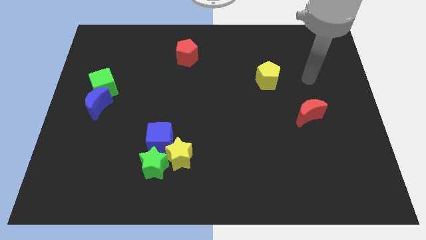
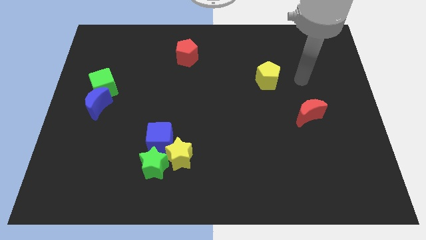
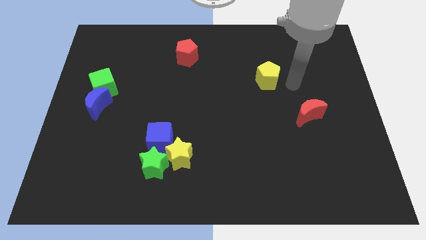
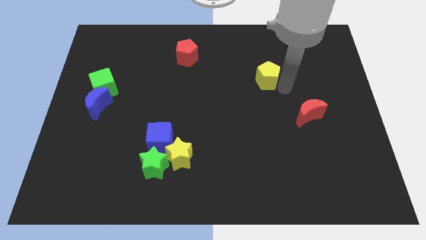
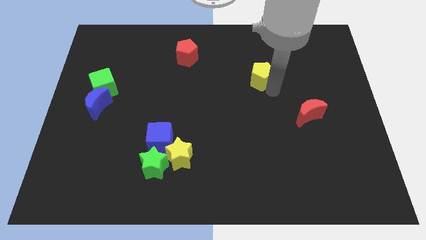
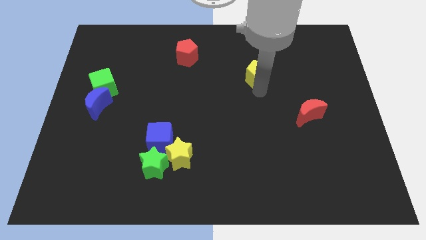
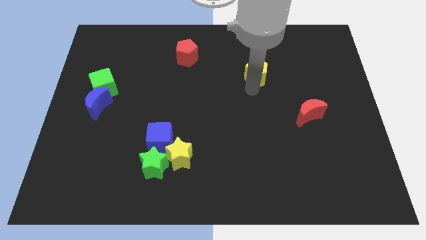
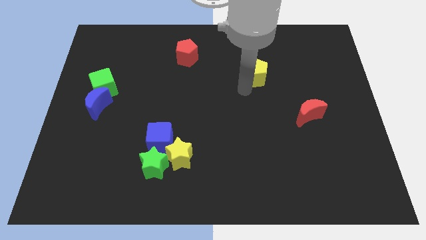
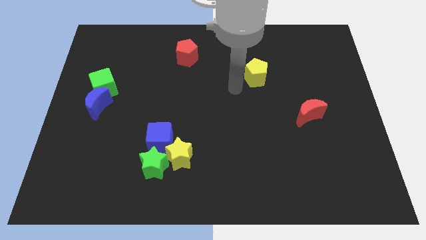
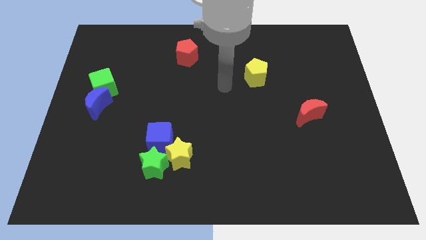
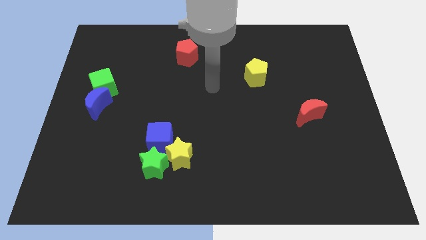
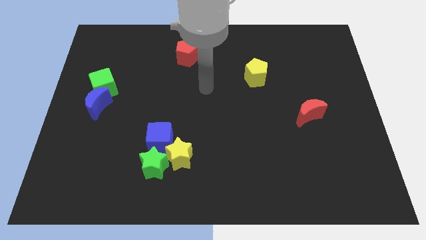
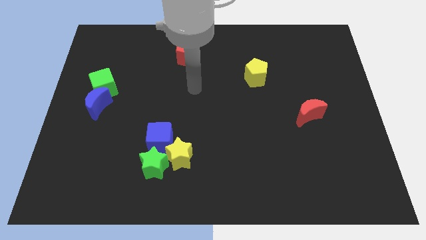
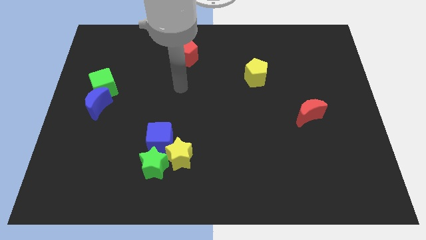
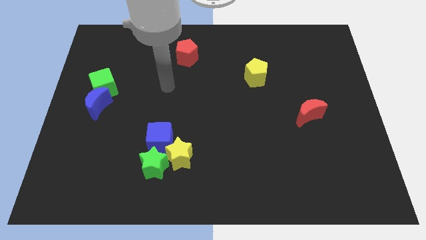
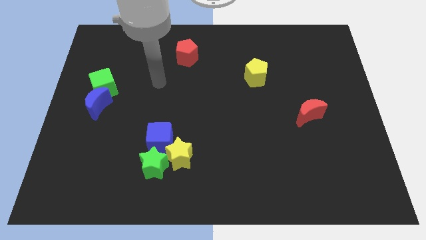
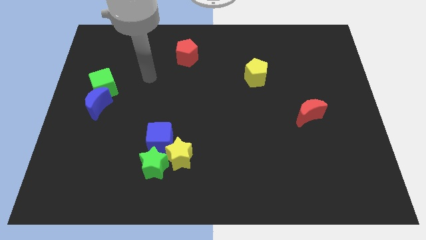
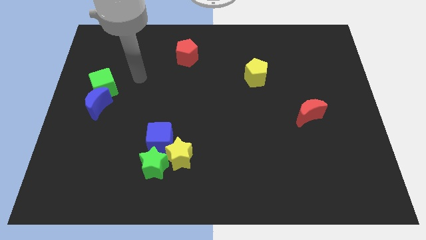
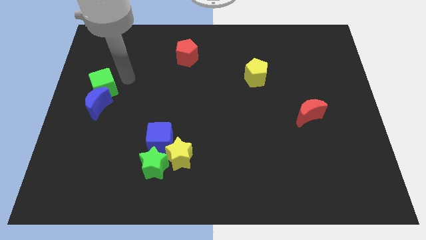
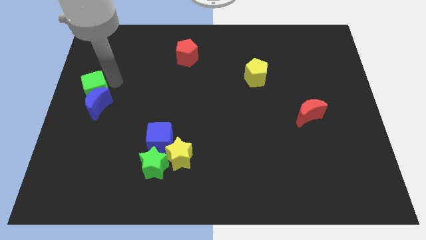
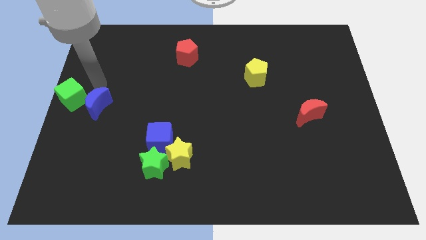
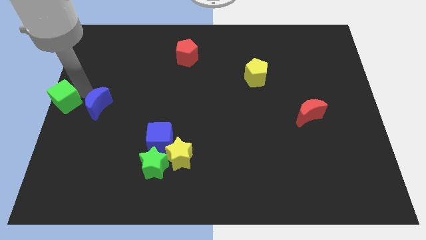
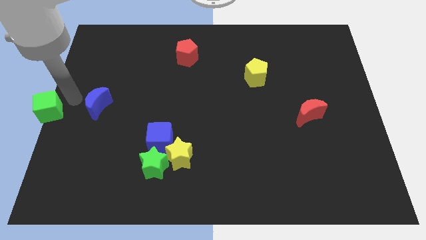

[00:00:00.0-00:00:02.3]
separate the blue moon from the green cube

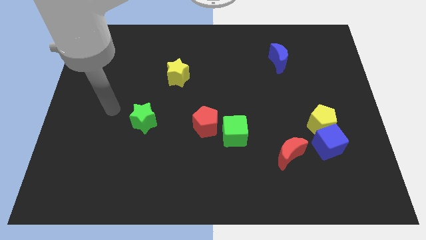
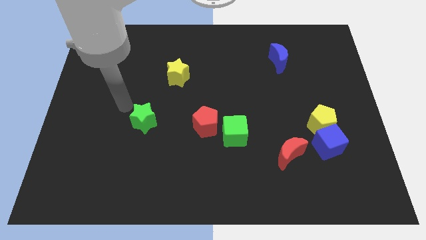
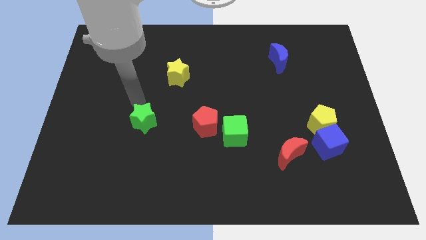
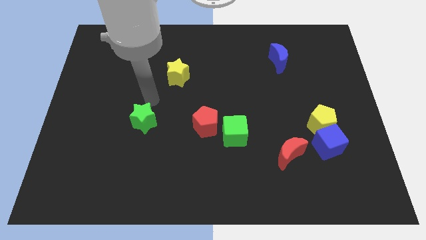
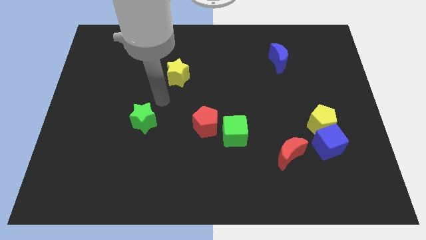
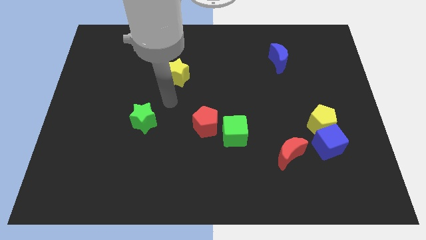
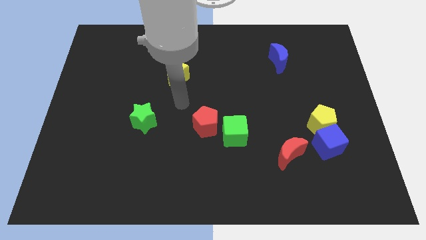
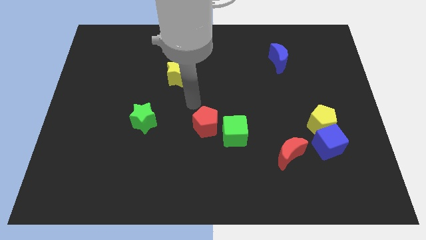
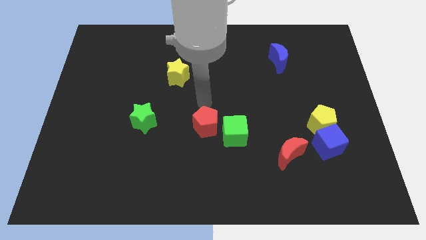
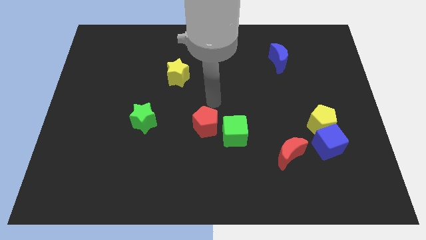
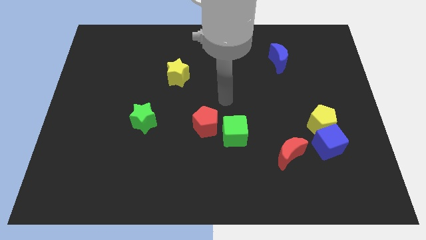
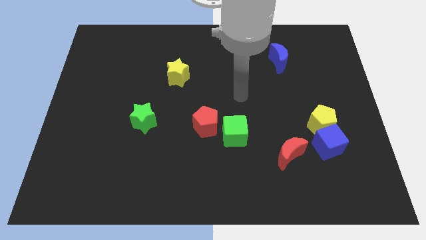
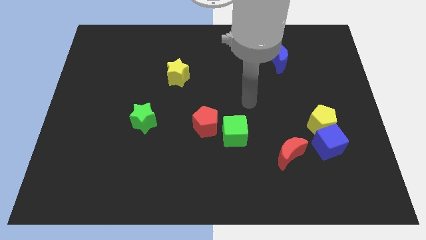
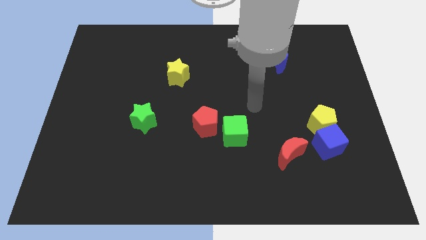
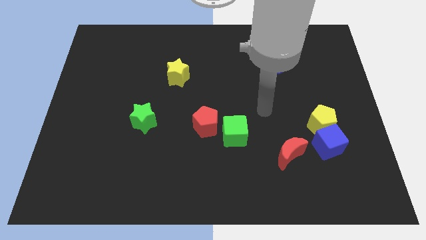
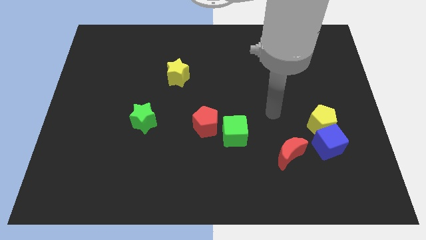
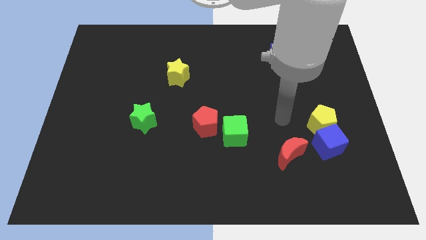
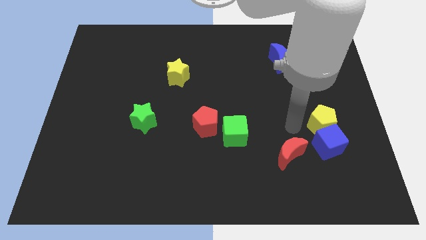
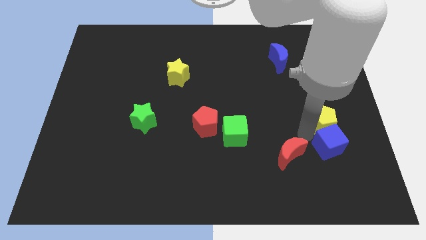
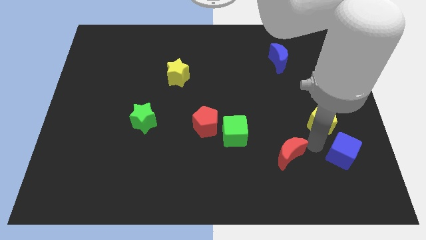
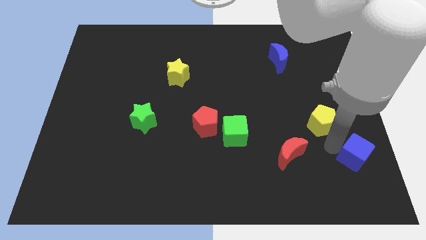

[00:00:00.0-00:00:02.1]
pull the yellow pentagon apart from the blue cube

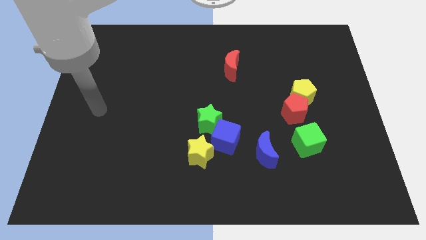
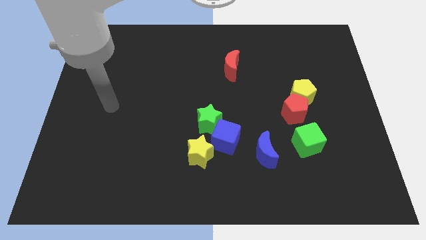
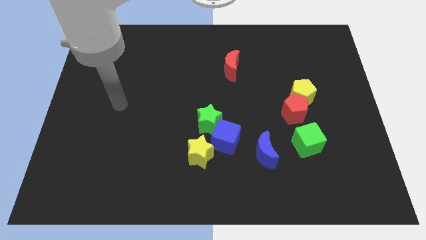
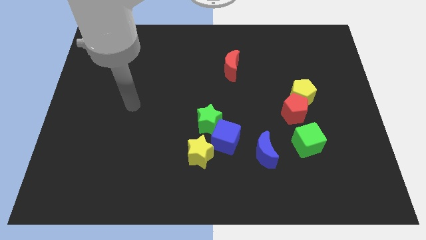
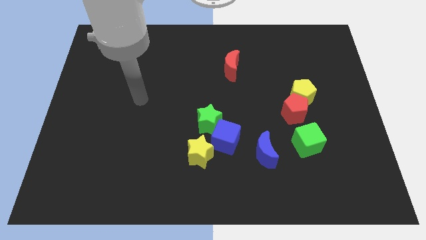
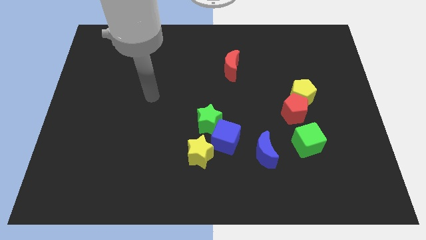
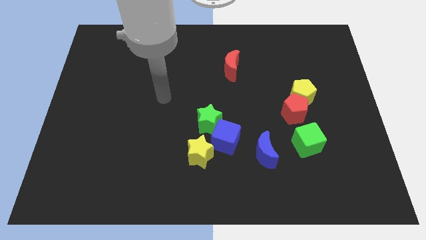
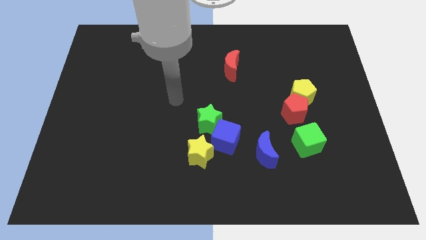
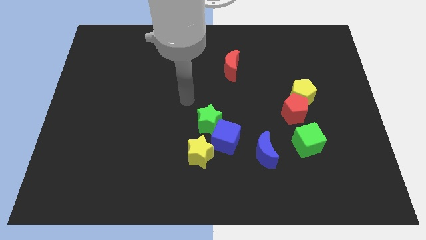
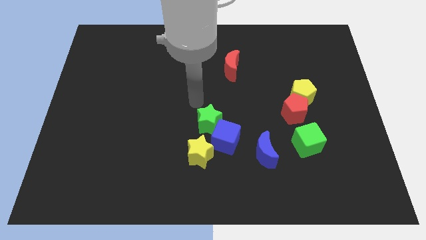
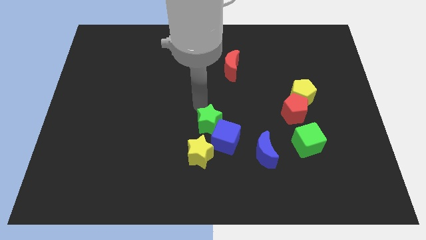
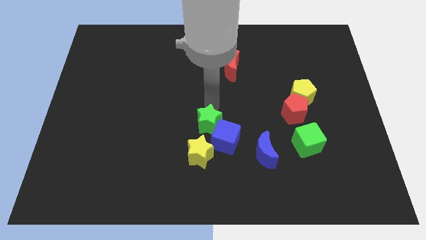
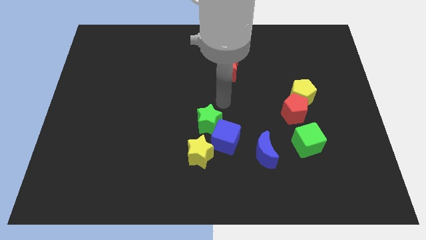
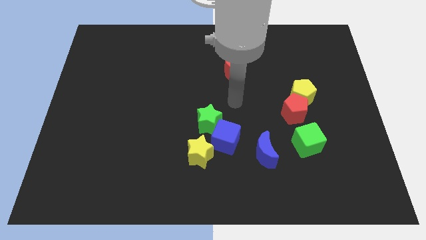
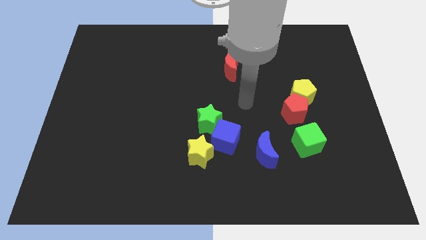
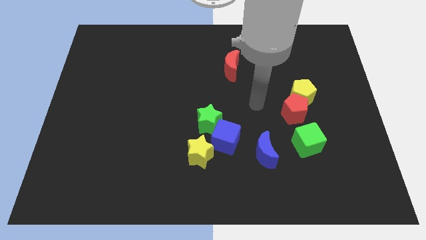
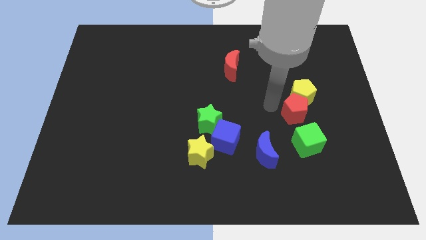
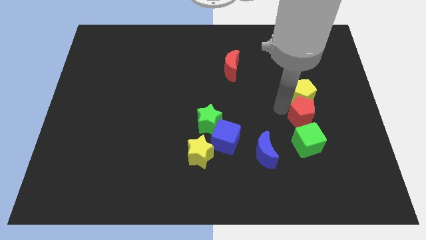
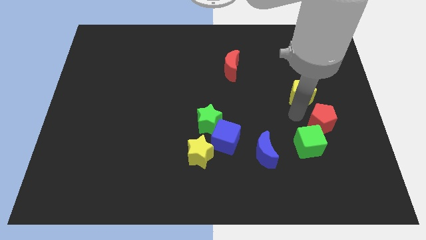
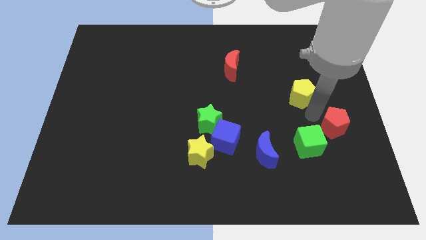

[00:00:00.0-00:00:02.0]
pull the yellow pentagon apart from the red pentagon

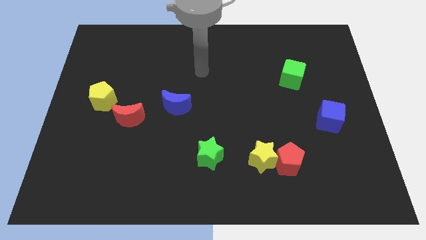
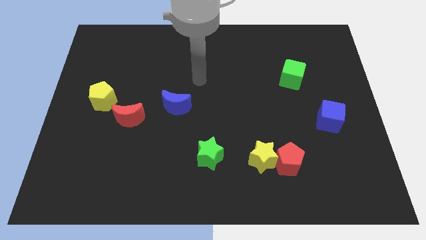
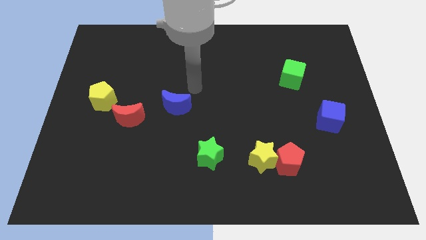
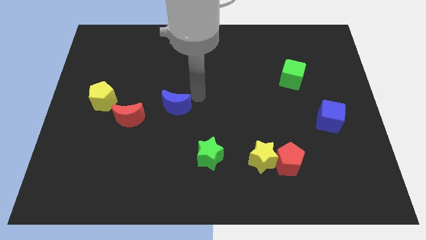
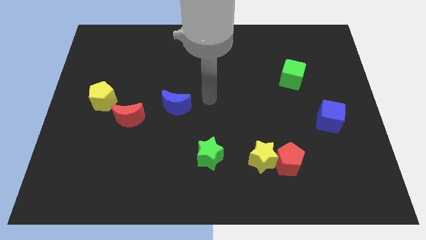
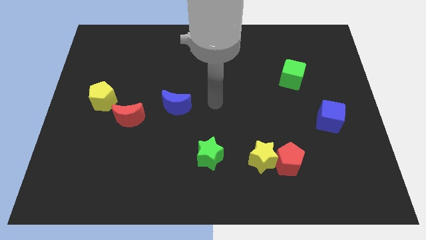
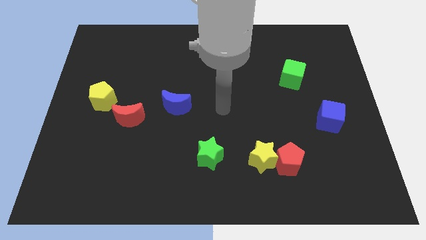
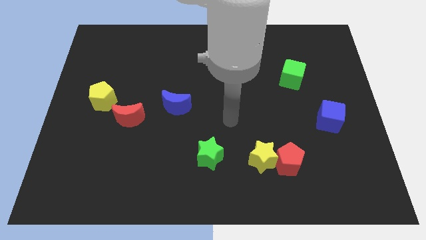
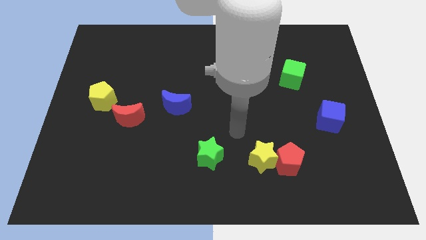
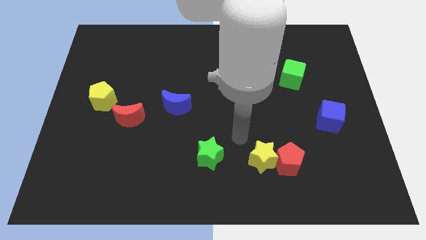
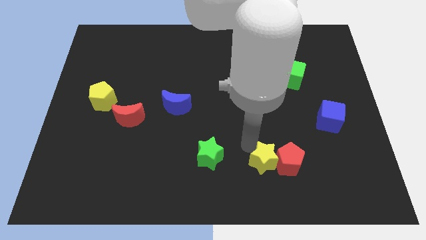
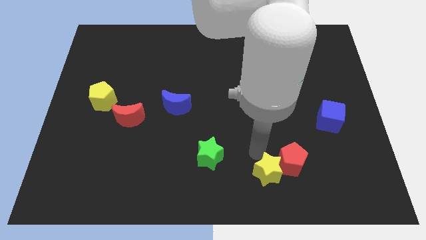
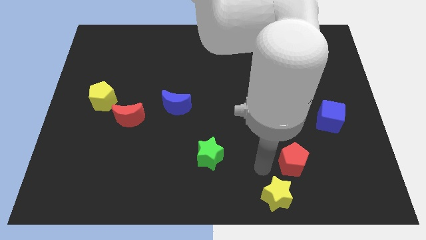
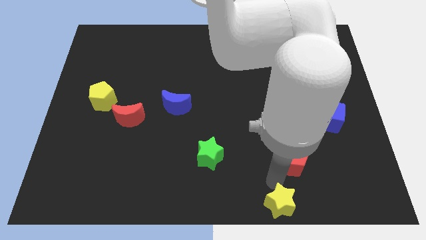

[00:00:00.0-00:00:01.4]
move the red pentagon away from the yellow star

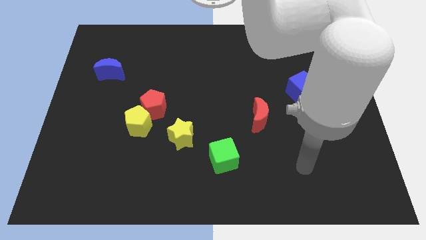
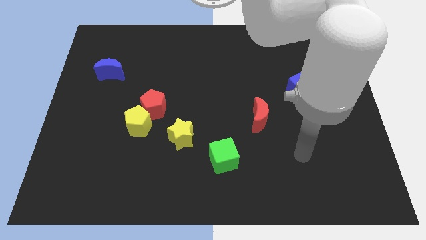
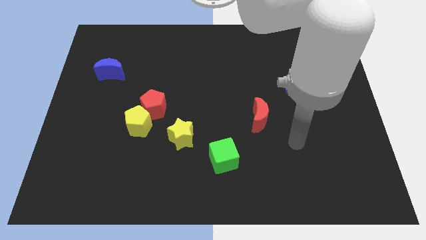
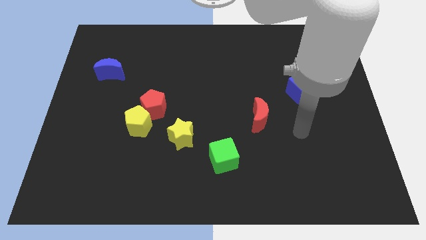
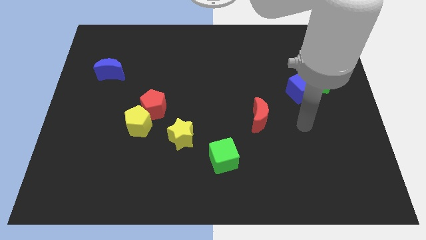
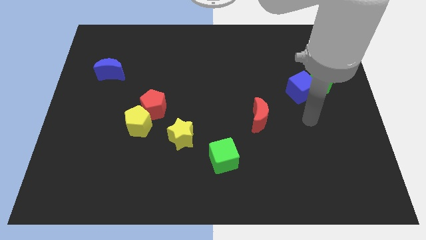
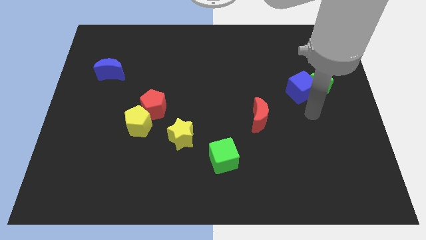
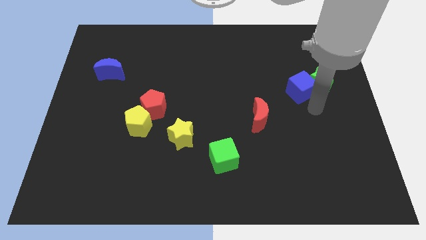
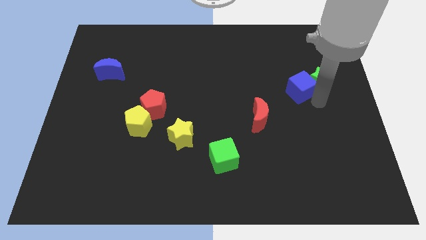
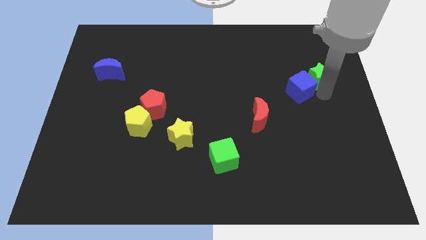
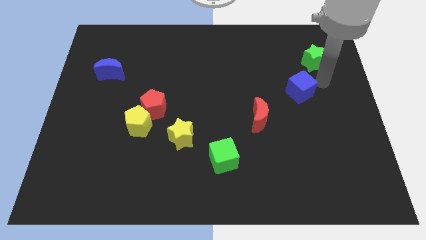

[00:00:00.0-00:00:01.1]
move the blue cube away from the green star

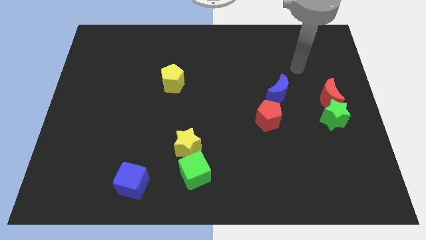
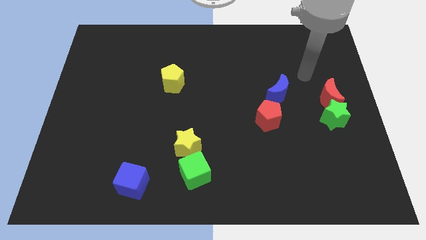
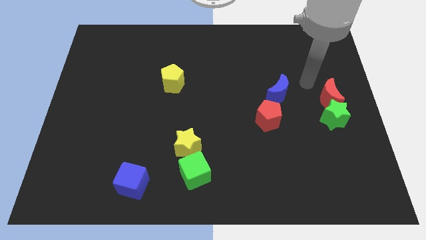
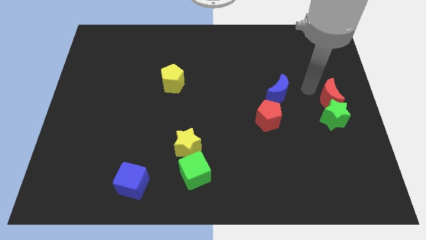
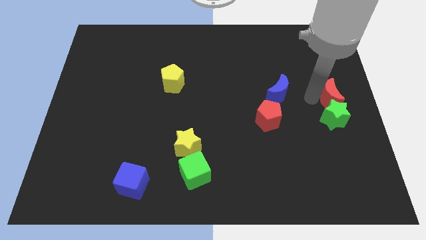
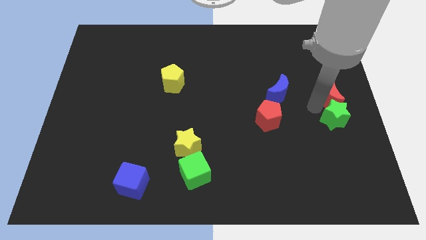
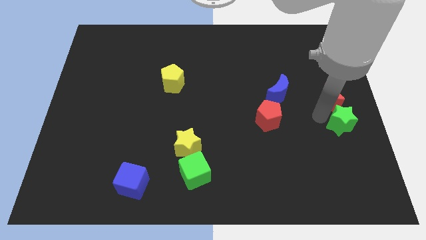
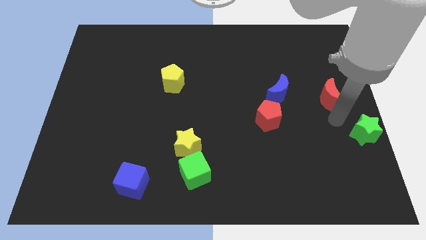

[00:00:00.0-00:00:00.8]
move the red moon away from the green star
